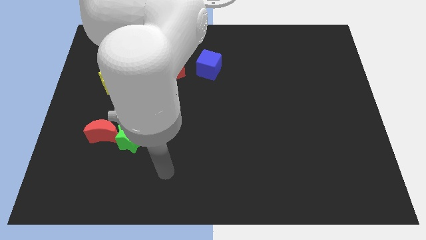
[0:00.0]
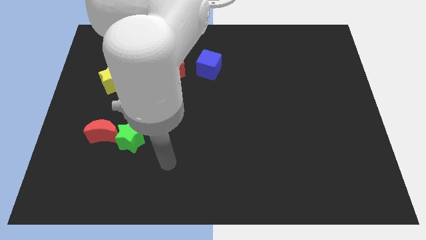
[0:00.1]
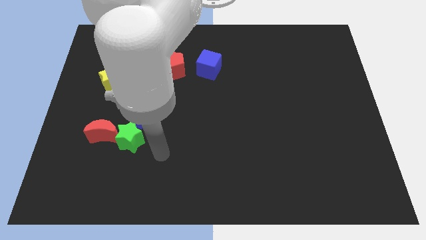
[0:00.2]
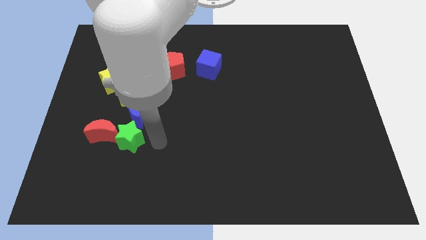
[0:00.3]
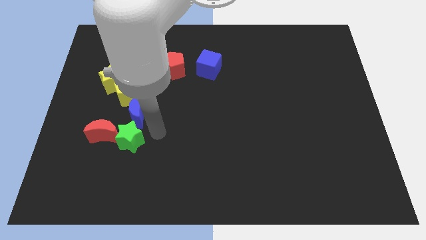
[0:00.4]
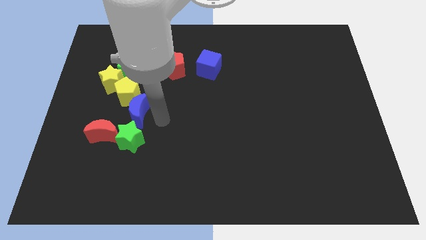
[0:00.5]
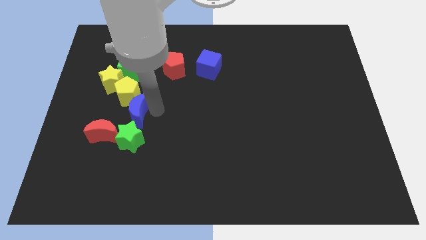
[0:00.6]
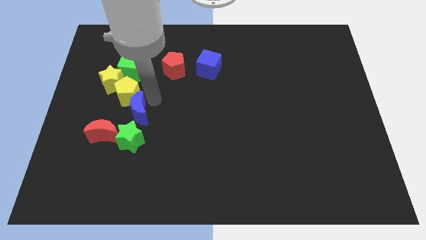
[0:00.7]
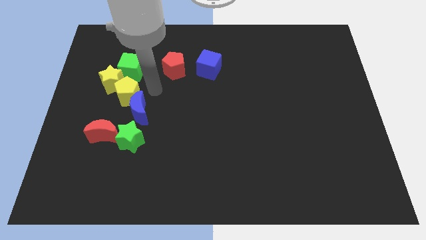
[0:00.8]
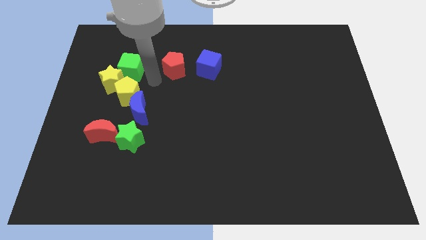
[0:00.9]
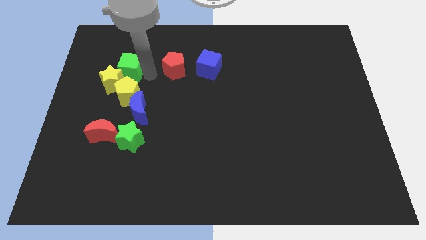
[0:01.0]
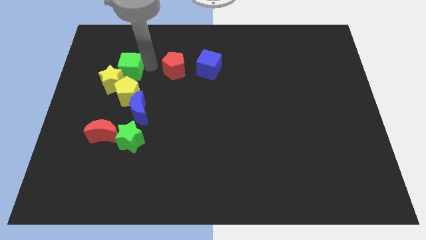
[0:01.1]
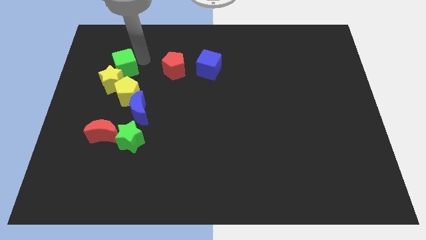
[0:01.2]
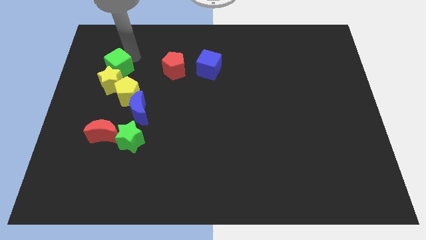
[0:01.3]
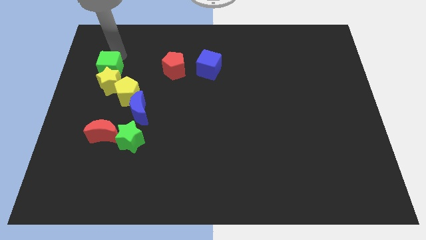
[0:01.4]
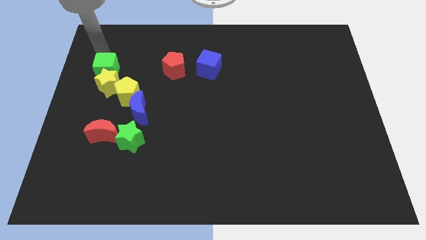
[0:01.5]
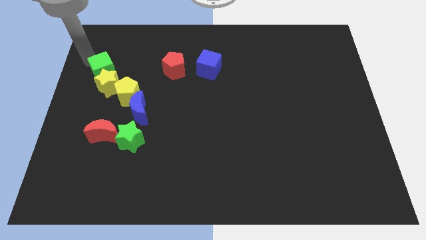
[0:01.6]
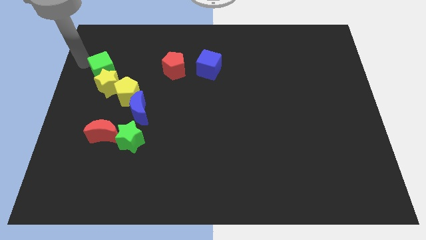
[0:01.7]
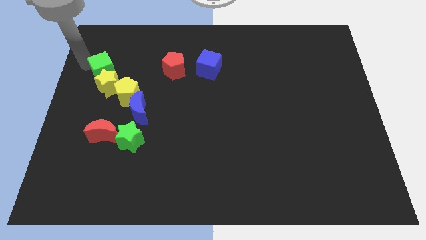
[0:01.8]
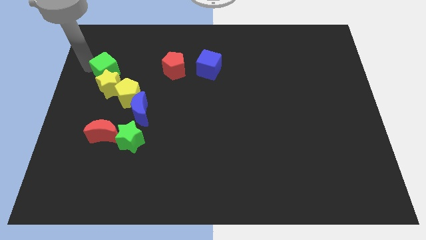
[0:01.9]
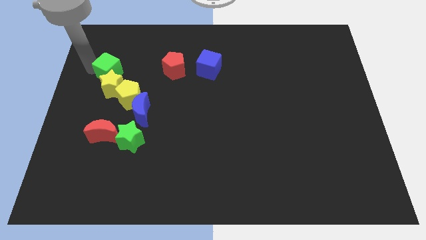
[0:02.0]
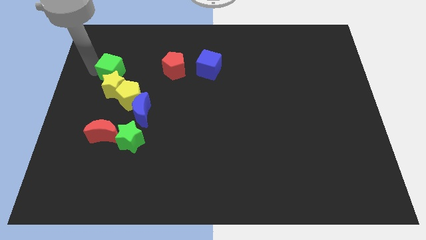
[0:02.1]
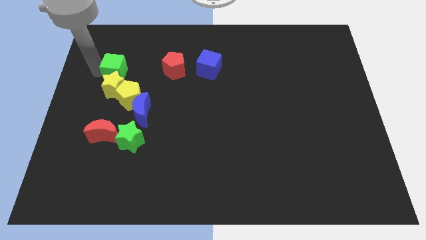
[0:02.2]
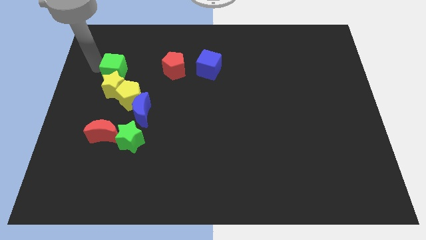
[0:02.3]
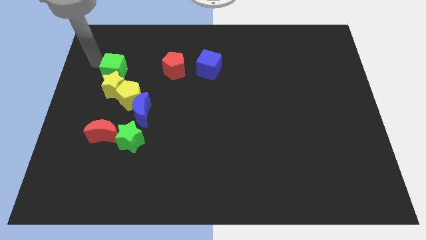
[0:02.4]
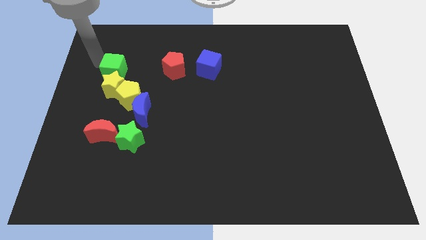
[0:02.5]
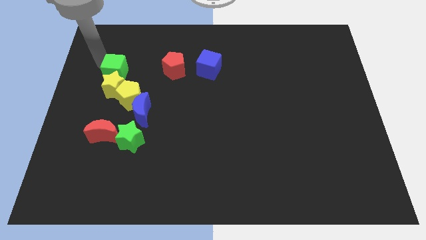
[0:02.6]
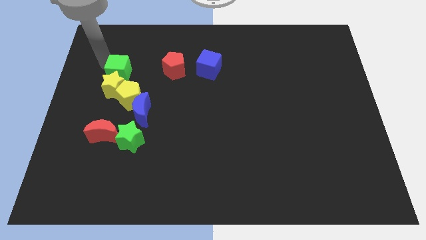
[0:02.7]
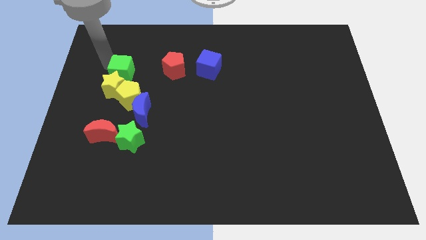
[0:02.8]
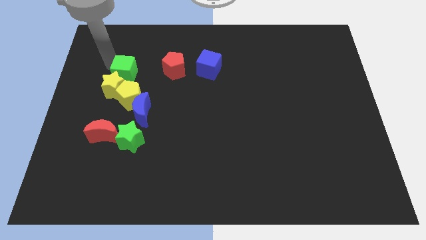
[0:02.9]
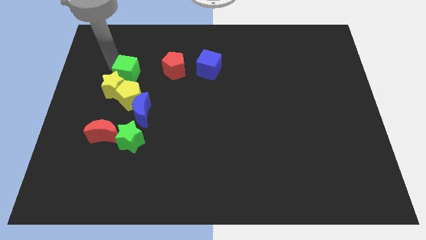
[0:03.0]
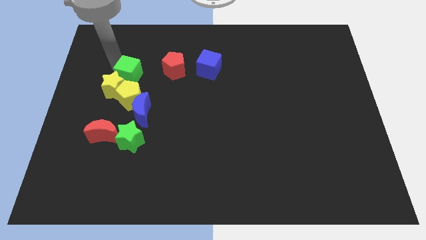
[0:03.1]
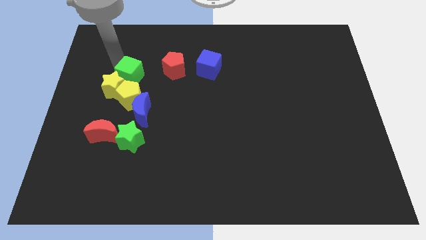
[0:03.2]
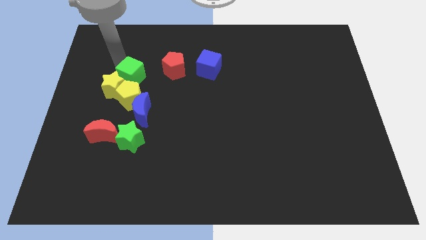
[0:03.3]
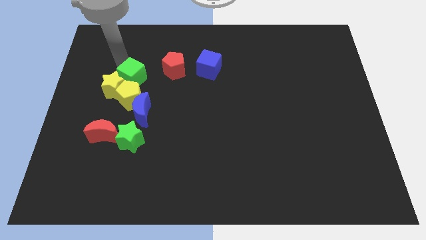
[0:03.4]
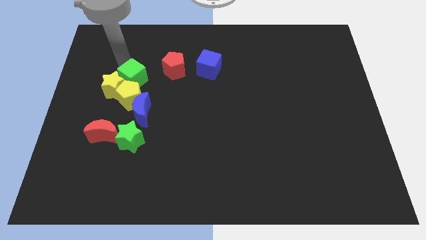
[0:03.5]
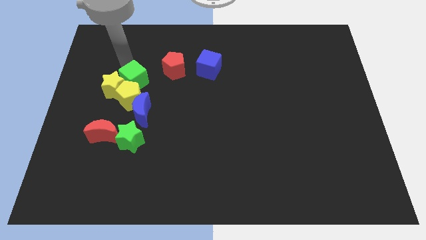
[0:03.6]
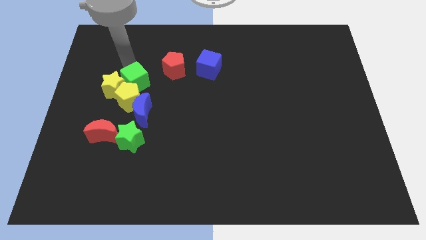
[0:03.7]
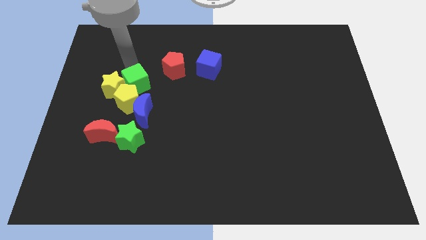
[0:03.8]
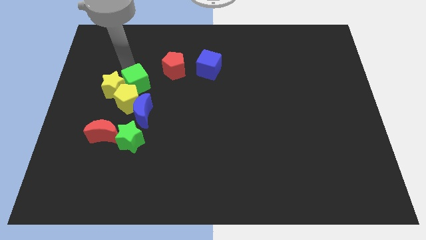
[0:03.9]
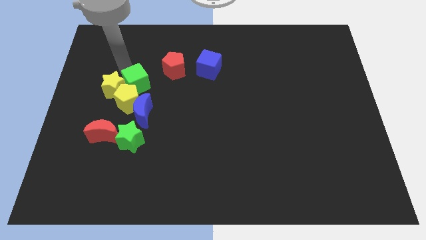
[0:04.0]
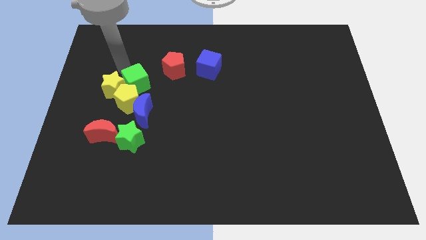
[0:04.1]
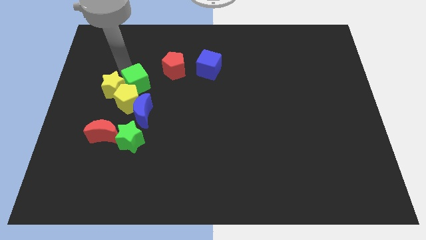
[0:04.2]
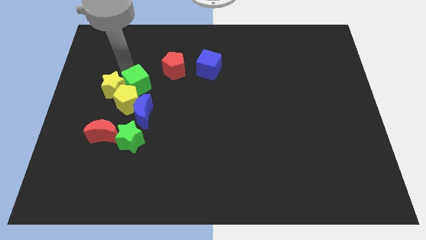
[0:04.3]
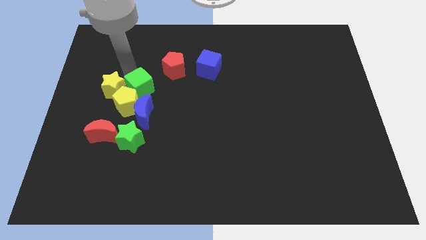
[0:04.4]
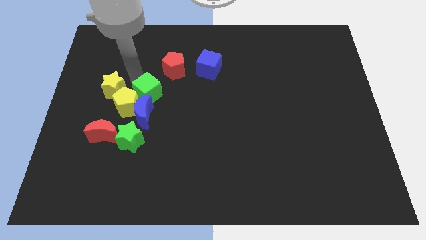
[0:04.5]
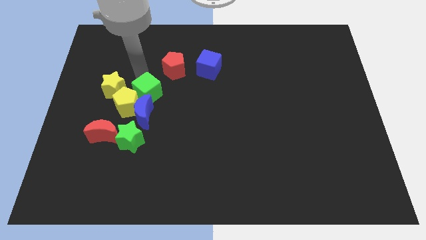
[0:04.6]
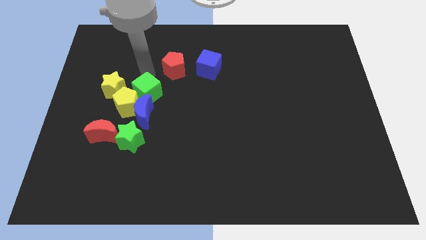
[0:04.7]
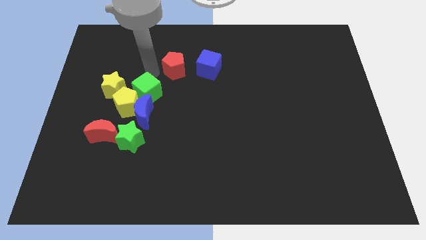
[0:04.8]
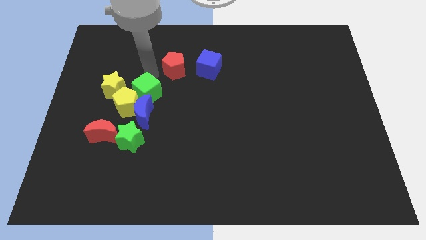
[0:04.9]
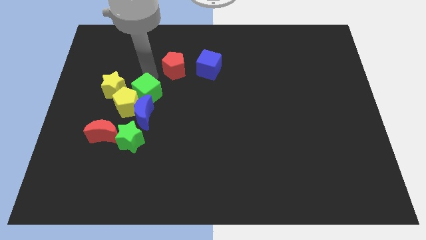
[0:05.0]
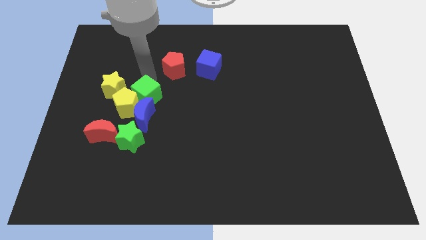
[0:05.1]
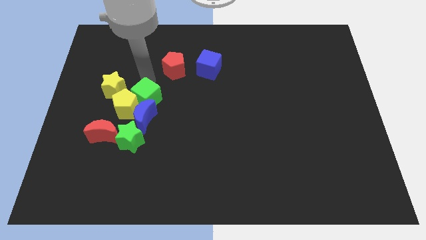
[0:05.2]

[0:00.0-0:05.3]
push the green cube towards the blue moon

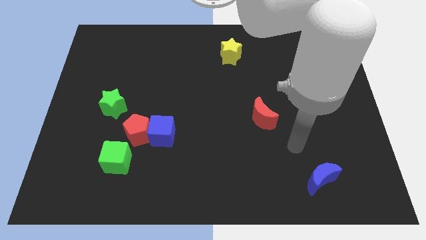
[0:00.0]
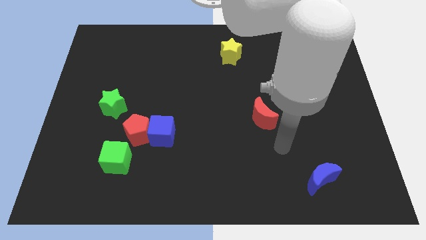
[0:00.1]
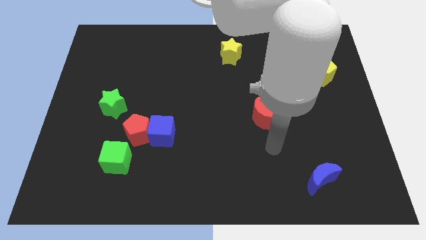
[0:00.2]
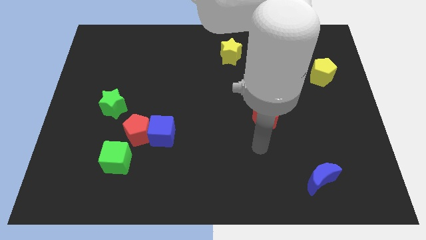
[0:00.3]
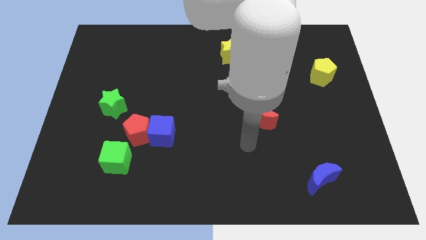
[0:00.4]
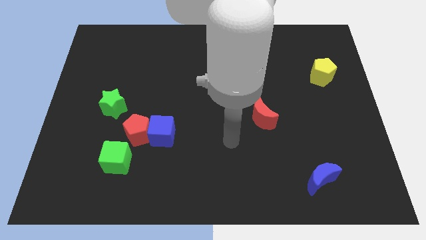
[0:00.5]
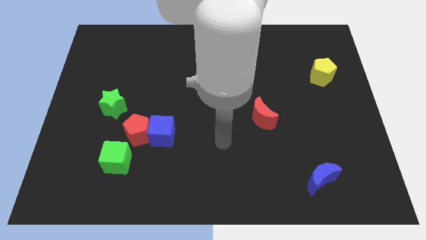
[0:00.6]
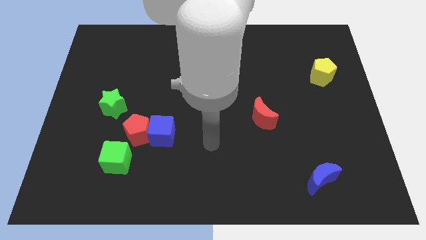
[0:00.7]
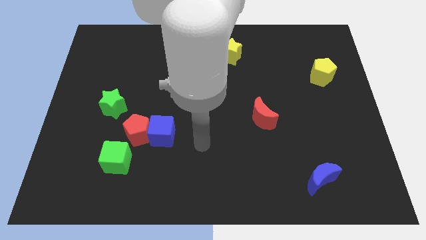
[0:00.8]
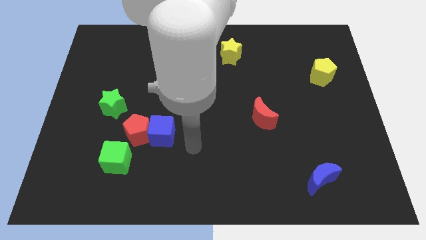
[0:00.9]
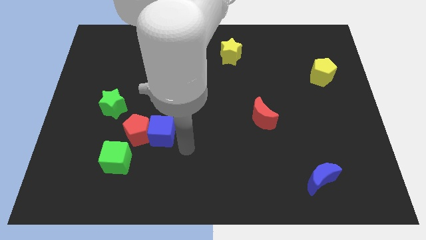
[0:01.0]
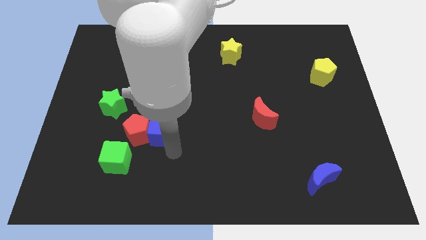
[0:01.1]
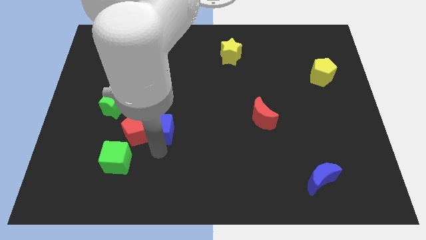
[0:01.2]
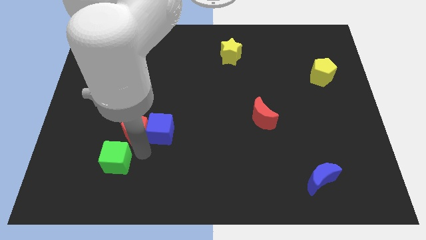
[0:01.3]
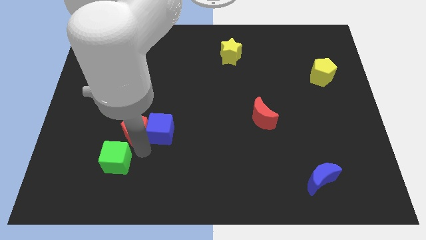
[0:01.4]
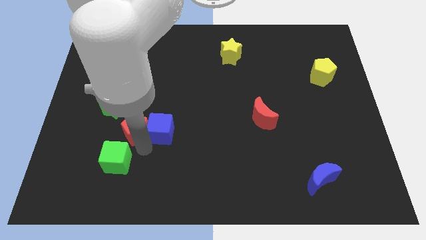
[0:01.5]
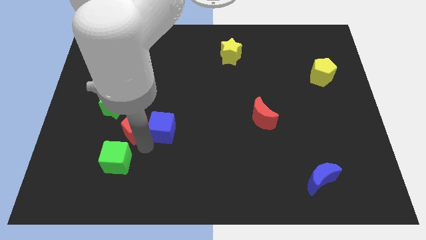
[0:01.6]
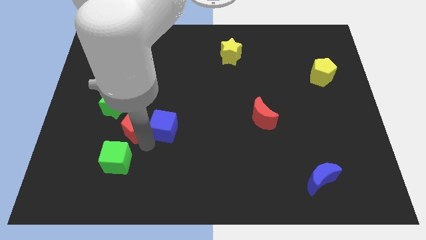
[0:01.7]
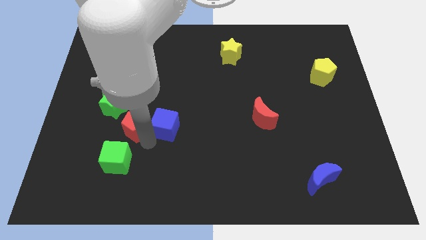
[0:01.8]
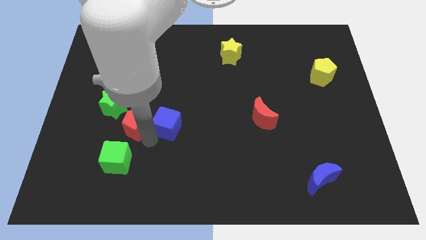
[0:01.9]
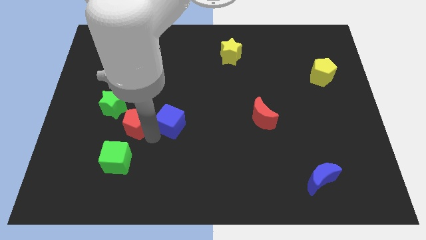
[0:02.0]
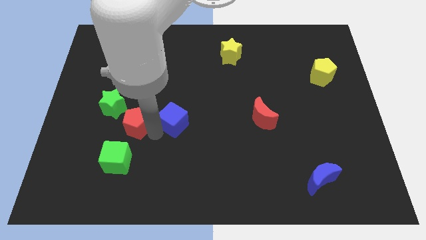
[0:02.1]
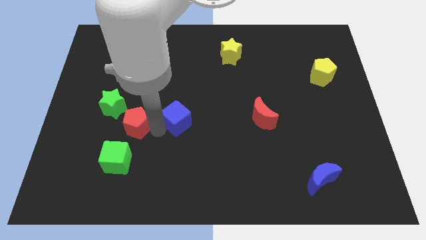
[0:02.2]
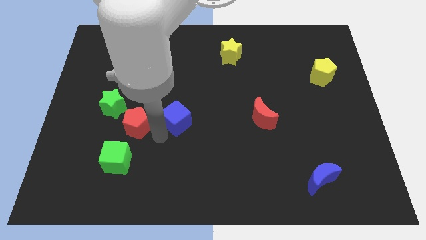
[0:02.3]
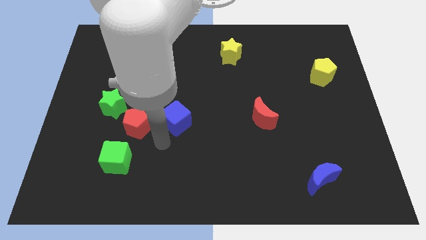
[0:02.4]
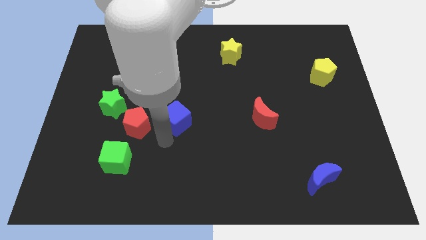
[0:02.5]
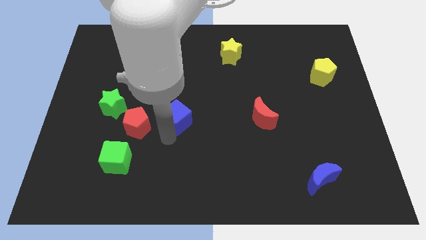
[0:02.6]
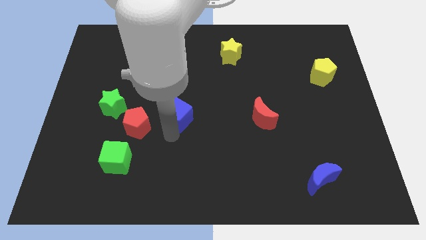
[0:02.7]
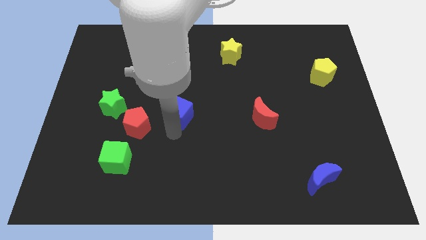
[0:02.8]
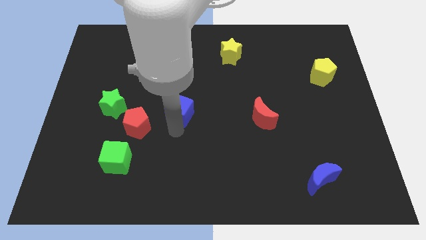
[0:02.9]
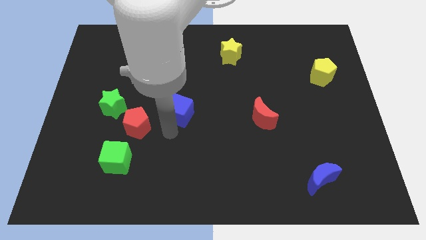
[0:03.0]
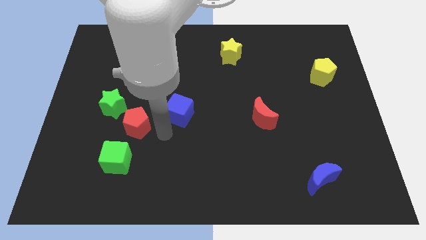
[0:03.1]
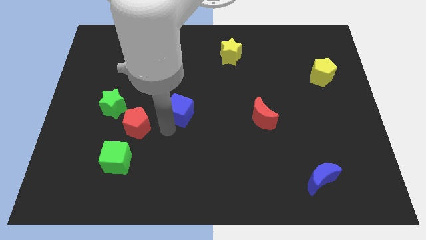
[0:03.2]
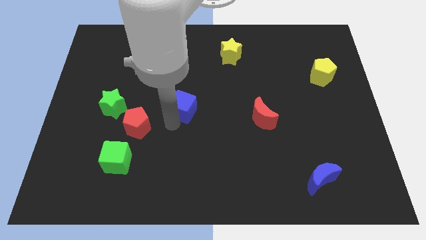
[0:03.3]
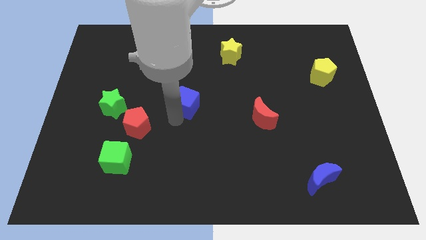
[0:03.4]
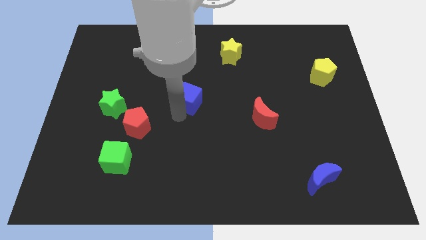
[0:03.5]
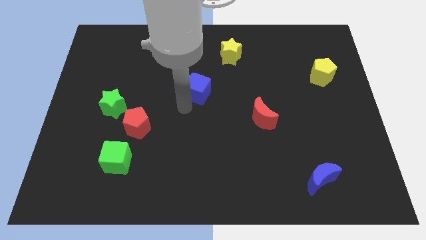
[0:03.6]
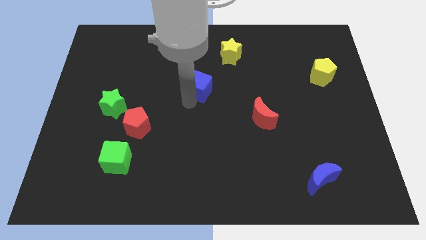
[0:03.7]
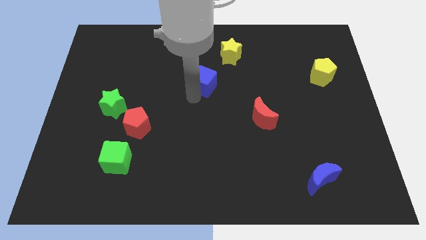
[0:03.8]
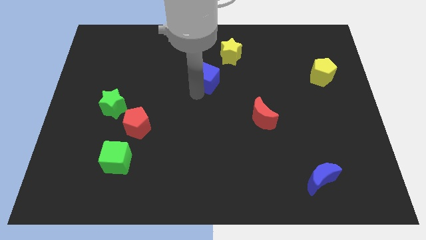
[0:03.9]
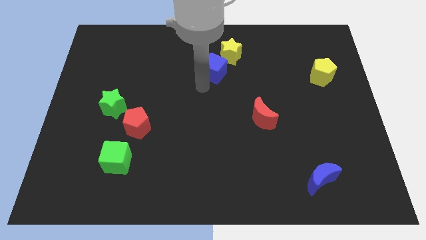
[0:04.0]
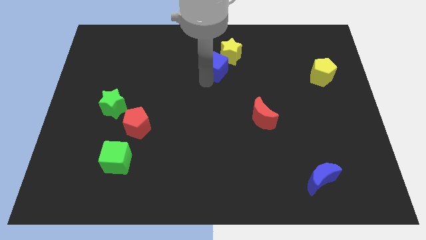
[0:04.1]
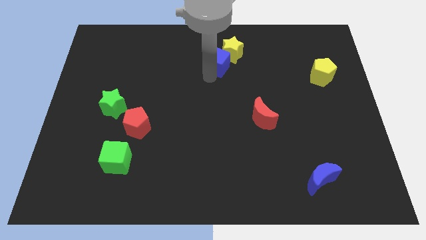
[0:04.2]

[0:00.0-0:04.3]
push the blue cube next to the yellow star
